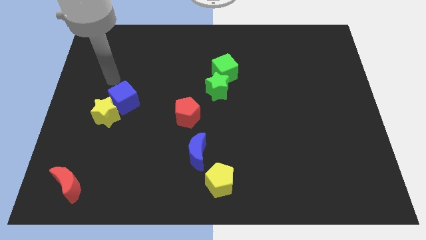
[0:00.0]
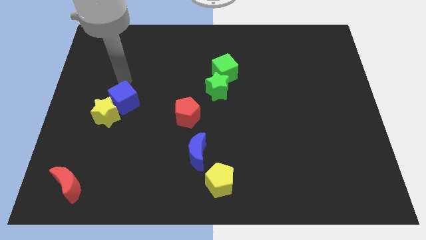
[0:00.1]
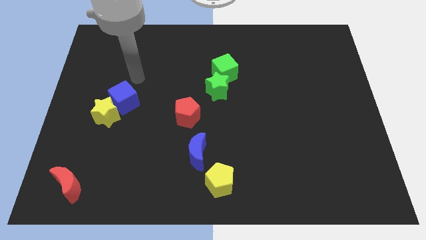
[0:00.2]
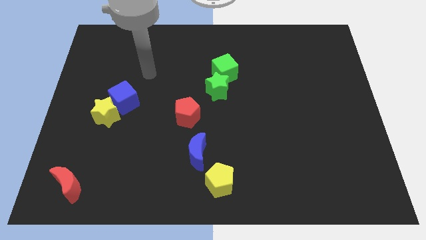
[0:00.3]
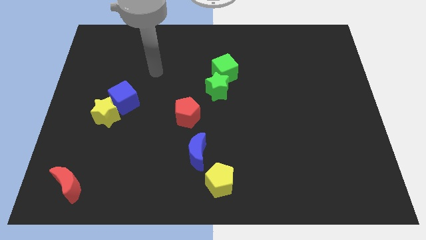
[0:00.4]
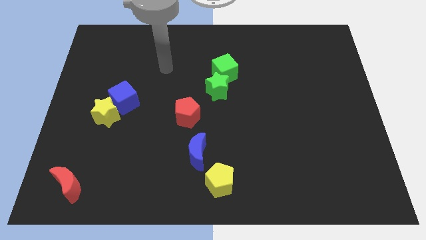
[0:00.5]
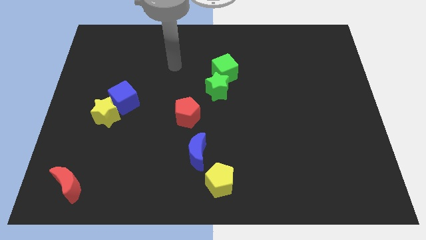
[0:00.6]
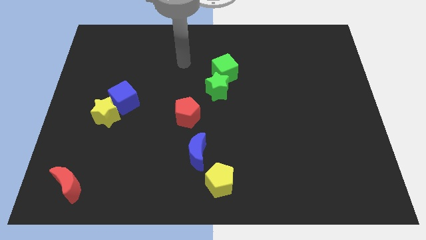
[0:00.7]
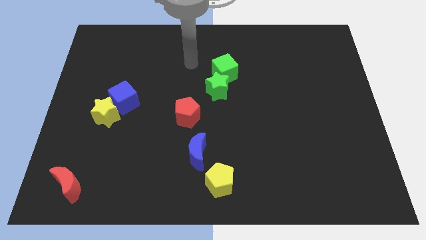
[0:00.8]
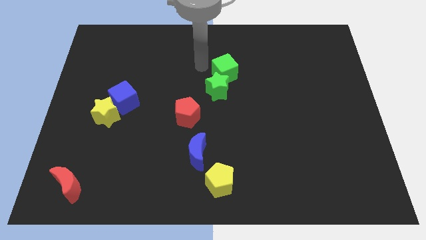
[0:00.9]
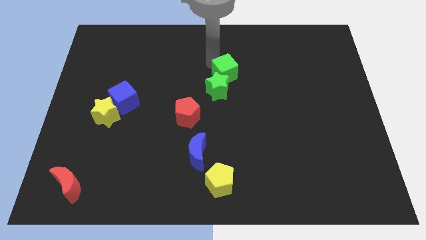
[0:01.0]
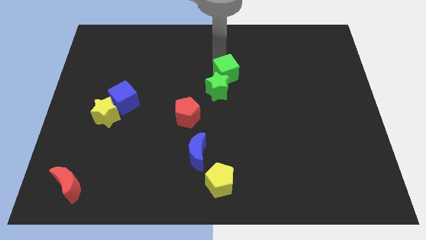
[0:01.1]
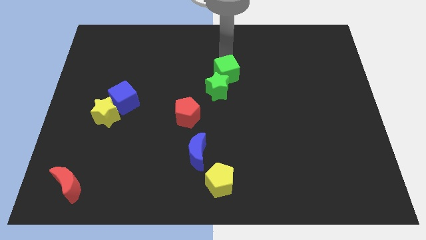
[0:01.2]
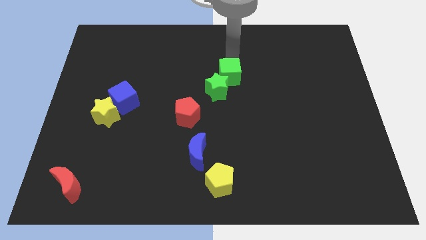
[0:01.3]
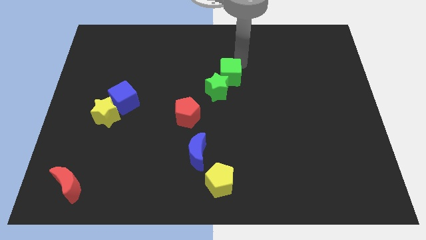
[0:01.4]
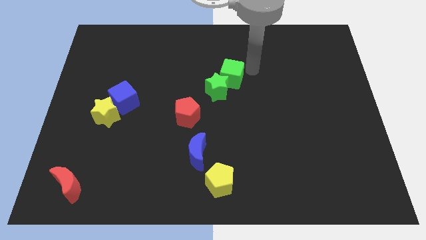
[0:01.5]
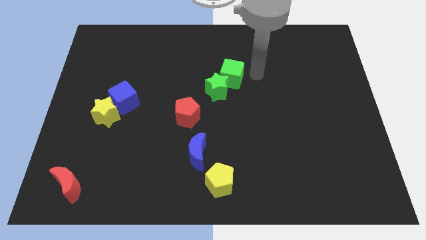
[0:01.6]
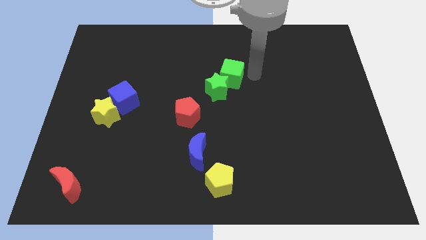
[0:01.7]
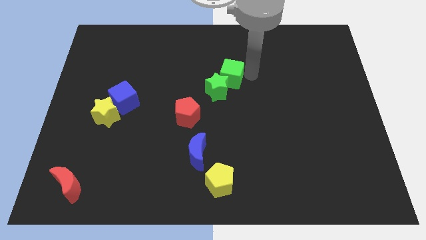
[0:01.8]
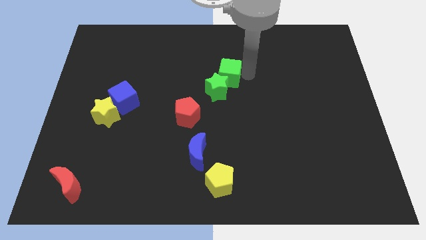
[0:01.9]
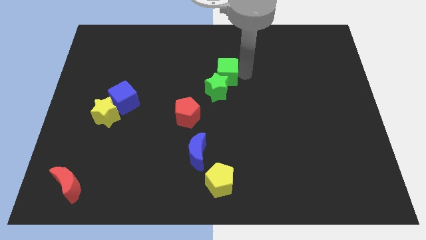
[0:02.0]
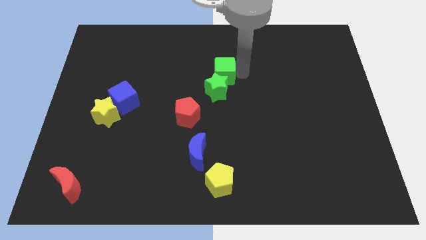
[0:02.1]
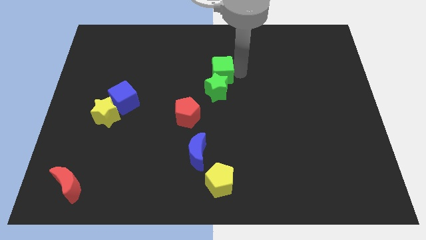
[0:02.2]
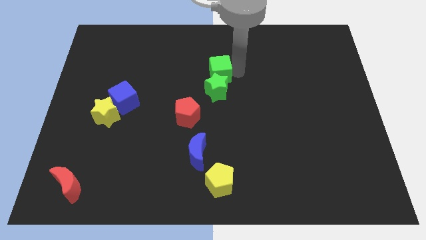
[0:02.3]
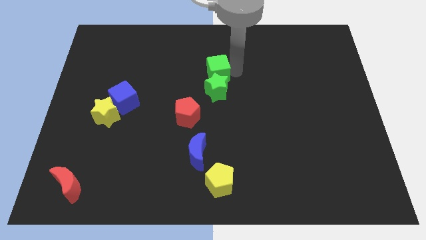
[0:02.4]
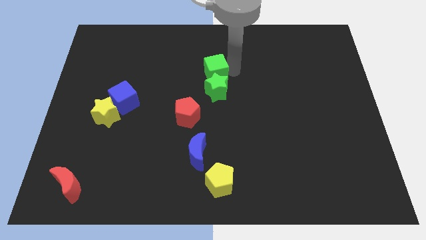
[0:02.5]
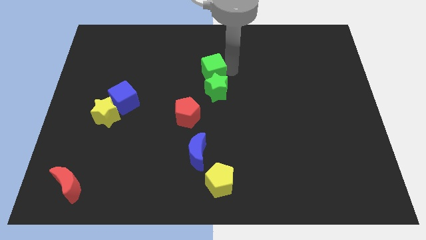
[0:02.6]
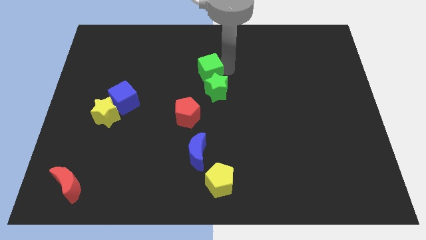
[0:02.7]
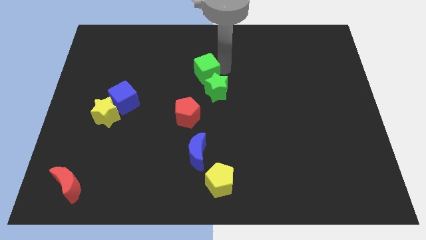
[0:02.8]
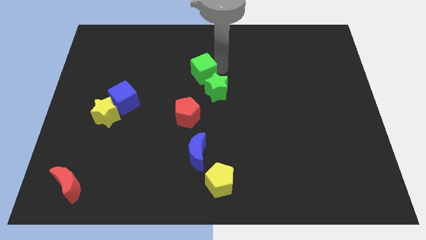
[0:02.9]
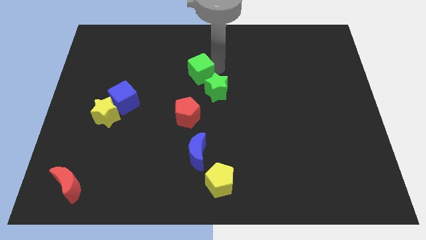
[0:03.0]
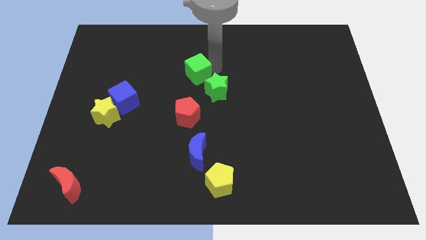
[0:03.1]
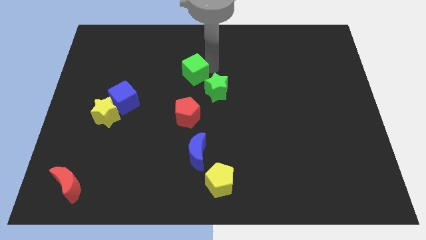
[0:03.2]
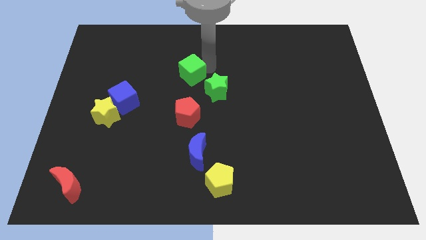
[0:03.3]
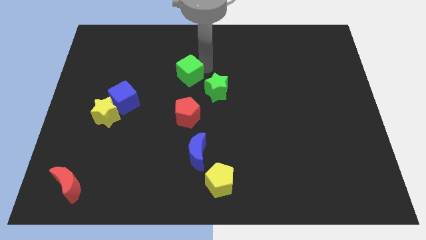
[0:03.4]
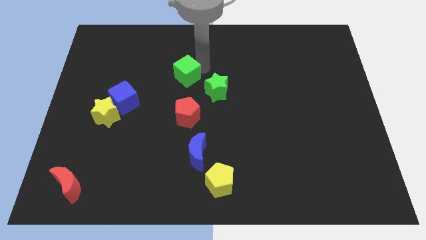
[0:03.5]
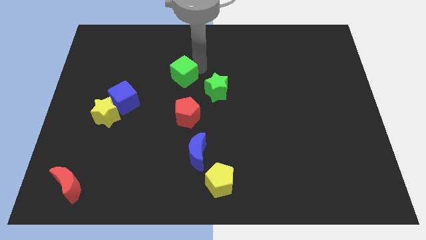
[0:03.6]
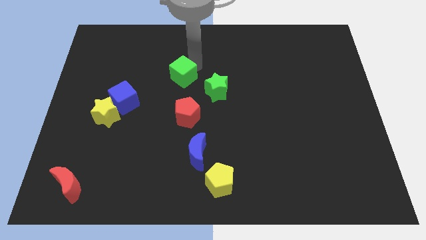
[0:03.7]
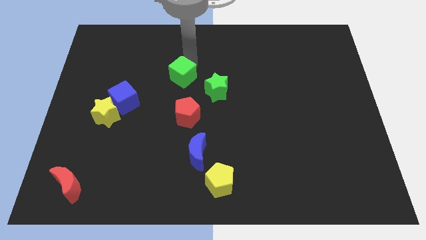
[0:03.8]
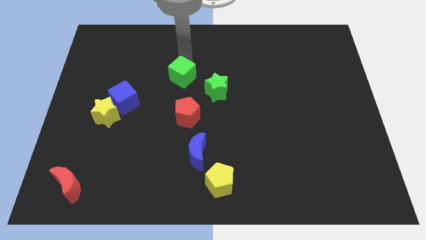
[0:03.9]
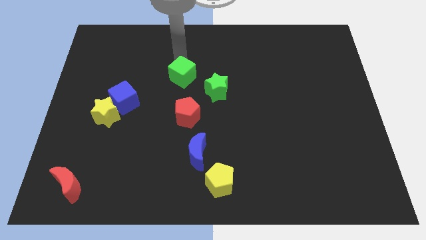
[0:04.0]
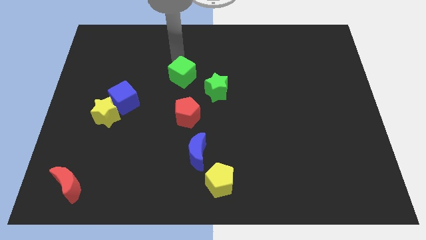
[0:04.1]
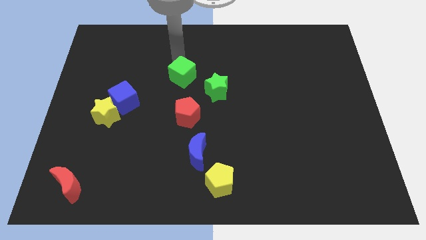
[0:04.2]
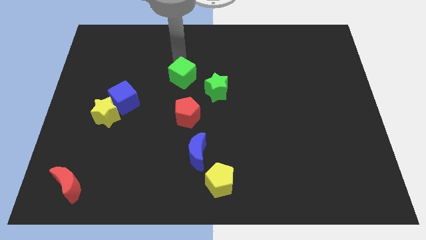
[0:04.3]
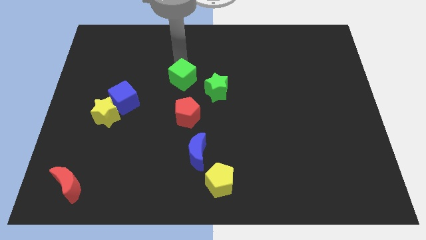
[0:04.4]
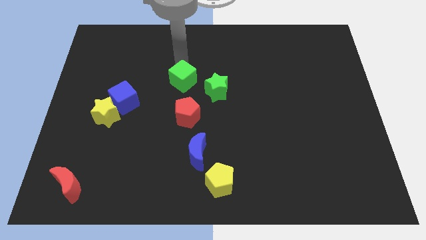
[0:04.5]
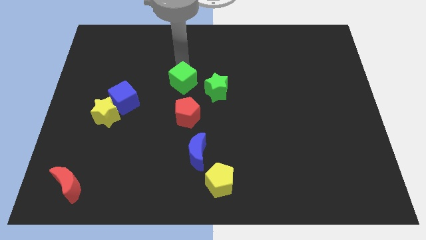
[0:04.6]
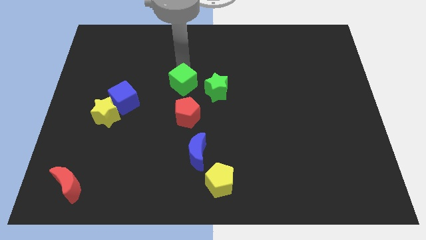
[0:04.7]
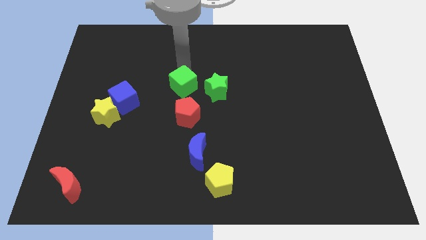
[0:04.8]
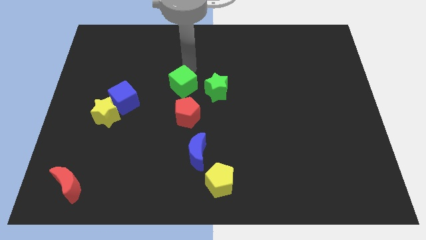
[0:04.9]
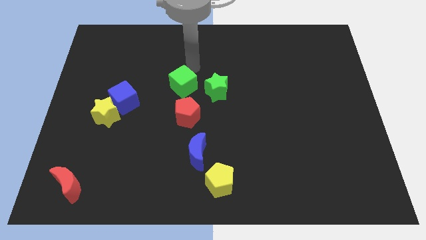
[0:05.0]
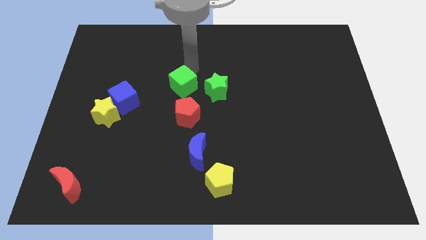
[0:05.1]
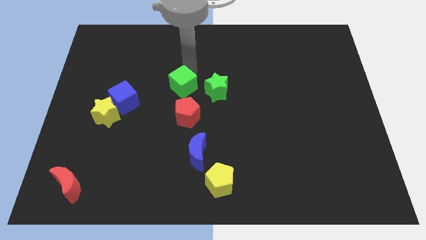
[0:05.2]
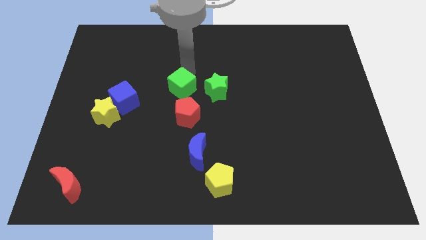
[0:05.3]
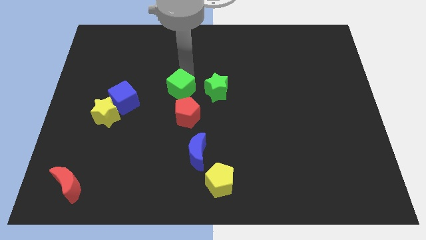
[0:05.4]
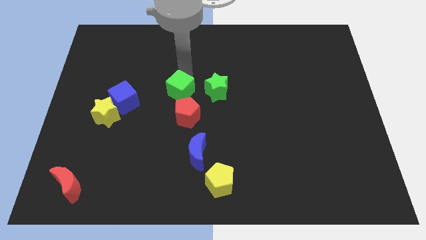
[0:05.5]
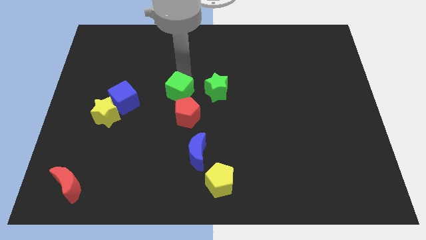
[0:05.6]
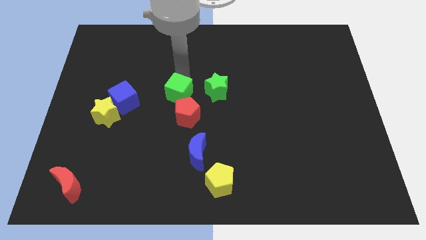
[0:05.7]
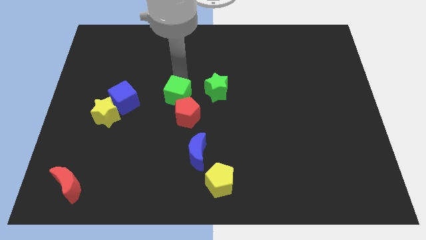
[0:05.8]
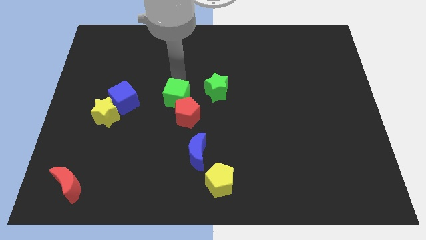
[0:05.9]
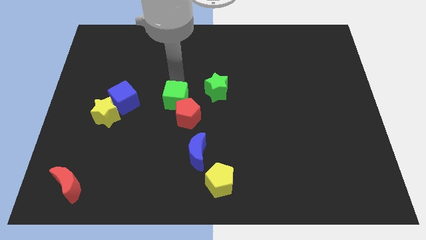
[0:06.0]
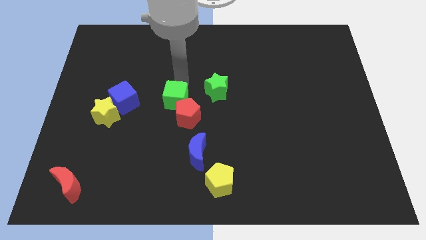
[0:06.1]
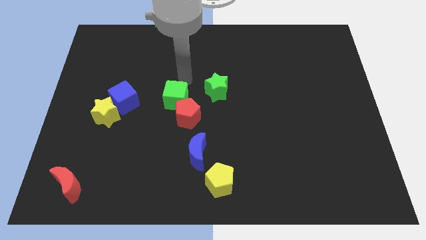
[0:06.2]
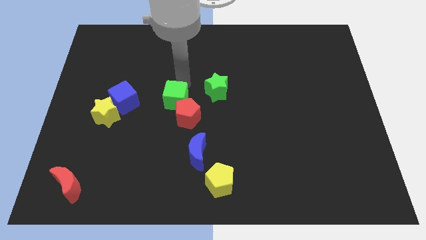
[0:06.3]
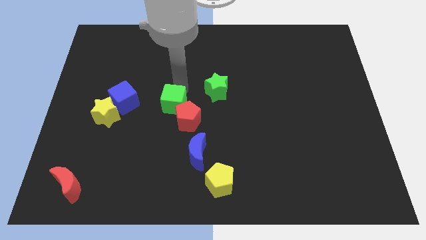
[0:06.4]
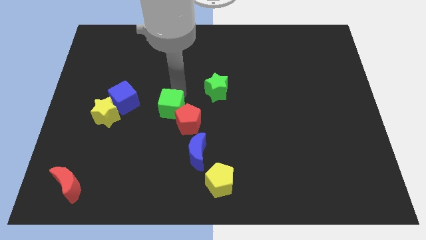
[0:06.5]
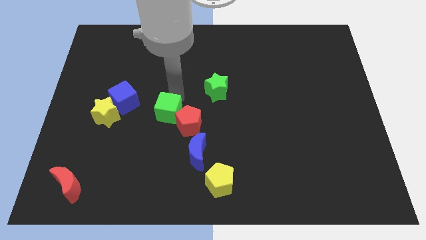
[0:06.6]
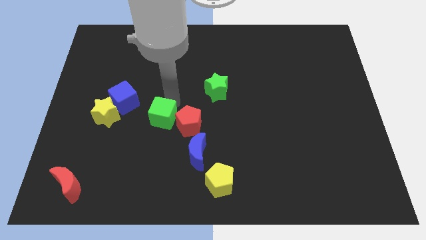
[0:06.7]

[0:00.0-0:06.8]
move the green cube diagonally up and to the left of the blue moon
